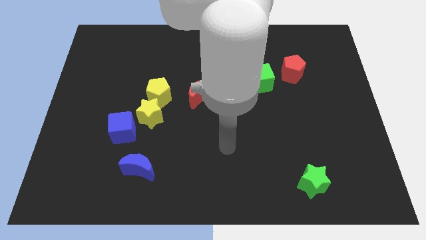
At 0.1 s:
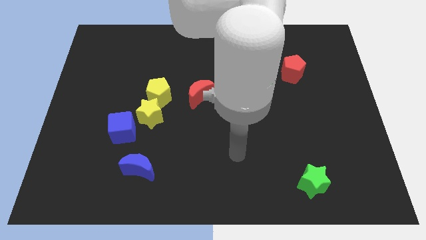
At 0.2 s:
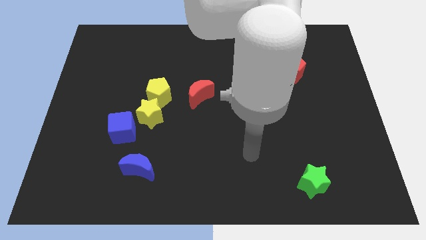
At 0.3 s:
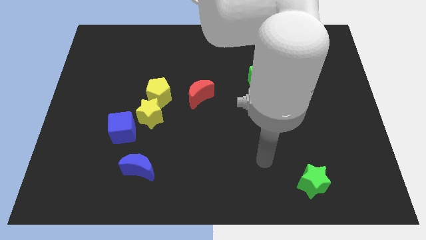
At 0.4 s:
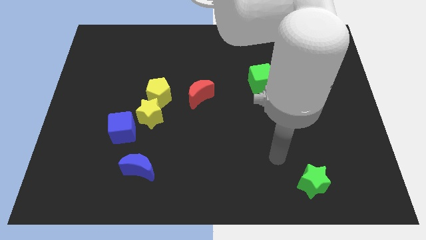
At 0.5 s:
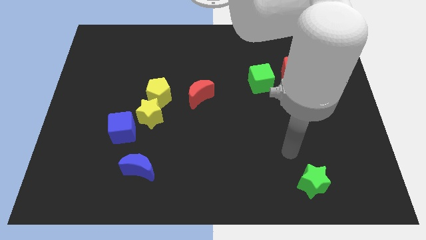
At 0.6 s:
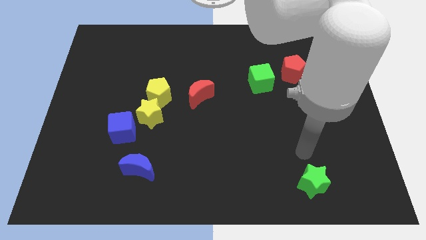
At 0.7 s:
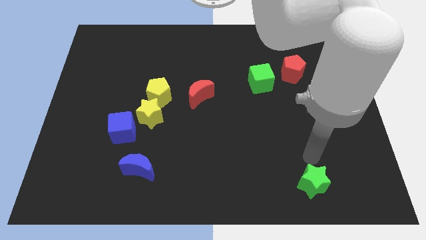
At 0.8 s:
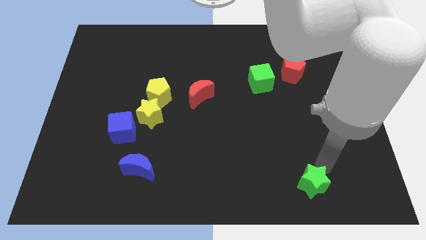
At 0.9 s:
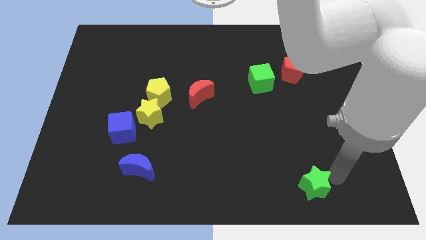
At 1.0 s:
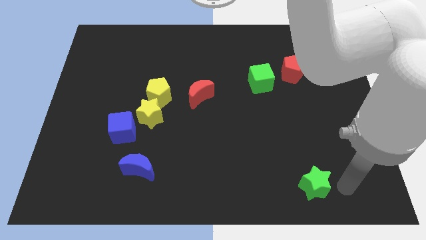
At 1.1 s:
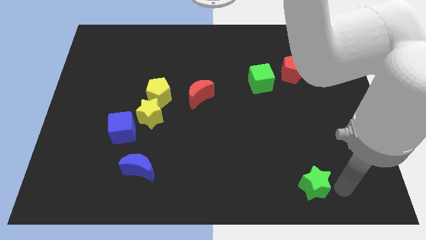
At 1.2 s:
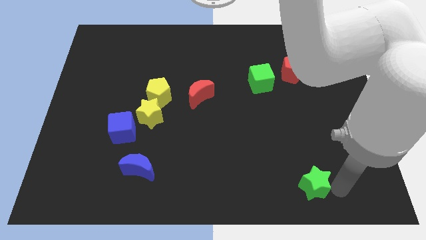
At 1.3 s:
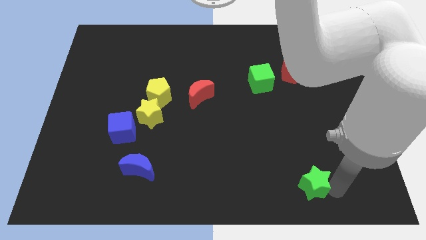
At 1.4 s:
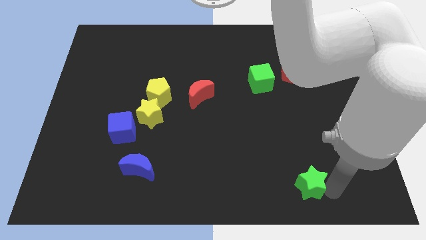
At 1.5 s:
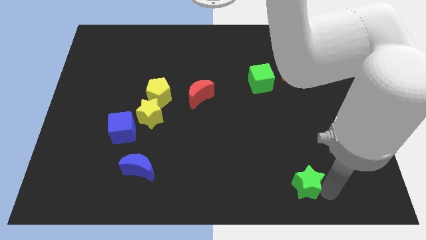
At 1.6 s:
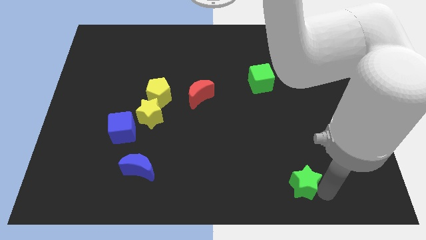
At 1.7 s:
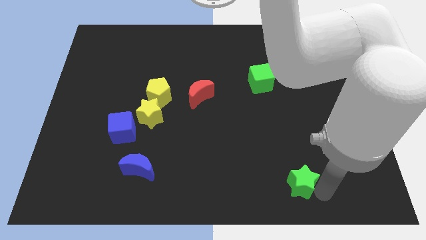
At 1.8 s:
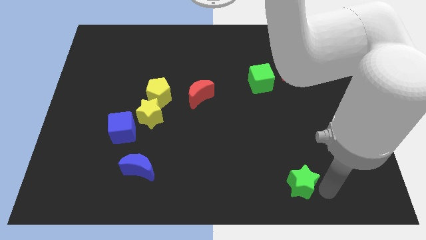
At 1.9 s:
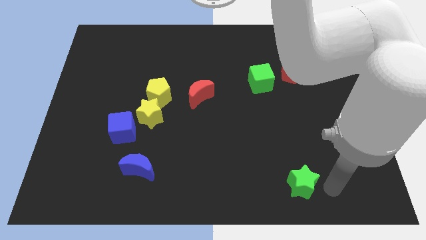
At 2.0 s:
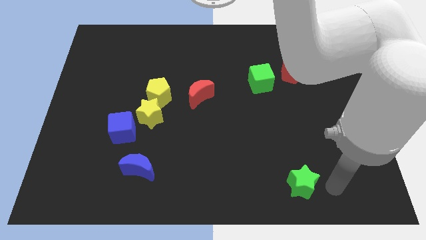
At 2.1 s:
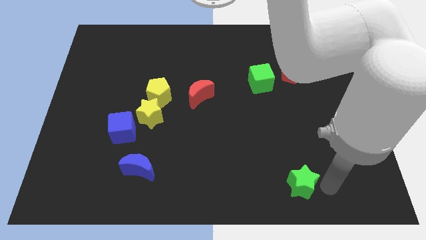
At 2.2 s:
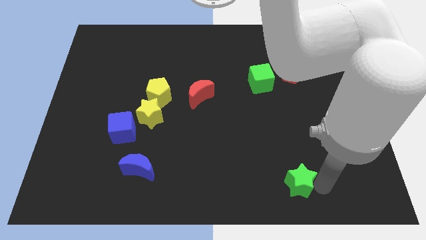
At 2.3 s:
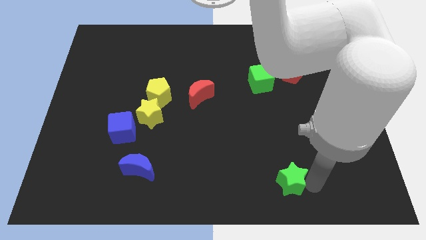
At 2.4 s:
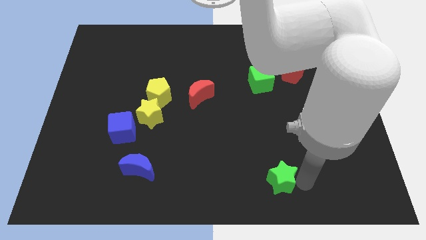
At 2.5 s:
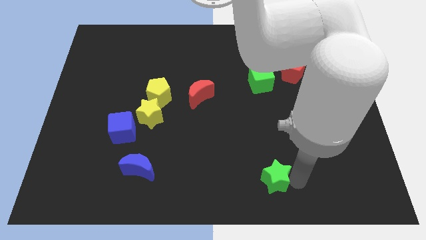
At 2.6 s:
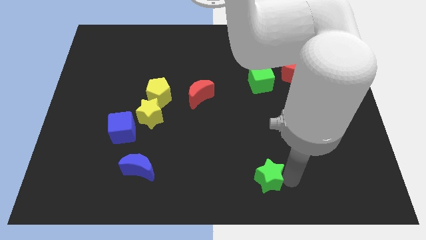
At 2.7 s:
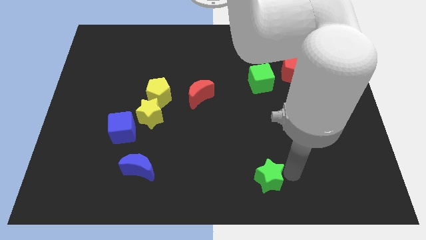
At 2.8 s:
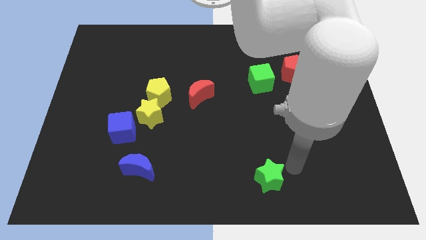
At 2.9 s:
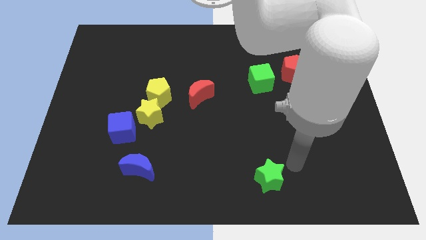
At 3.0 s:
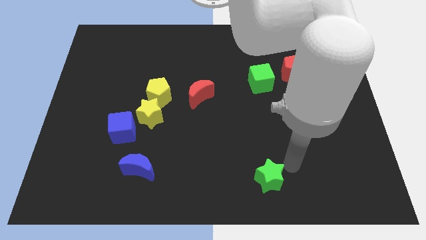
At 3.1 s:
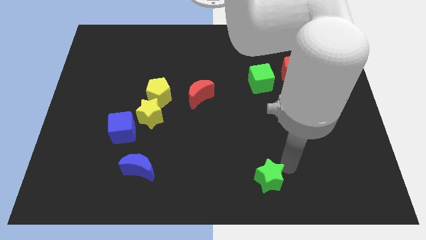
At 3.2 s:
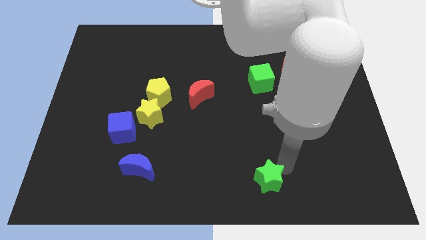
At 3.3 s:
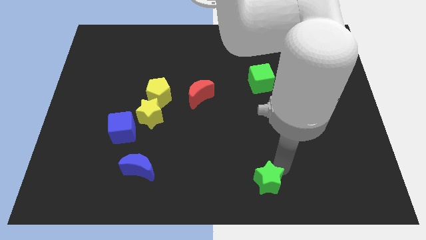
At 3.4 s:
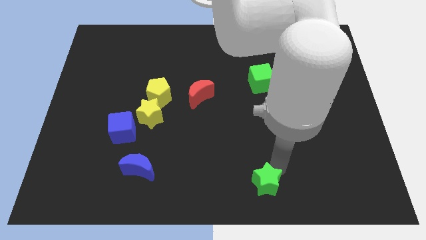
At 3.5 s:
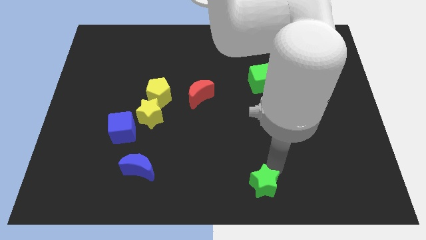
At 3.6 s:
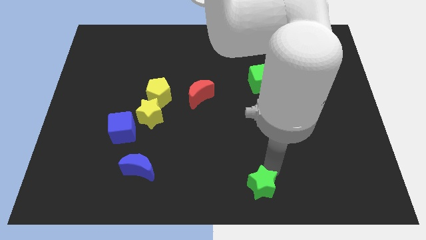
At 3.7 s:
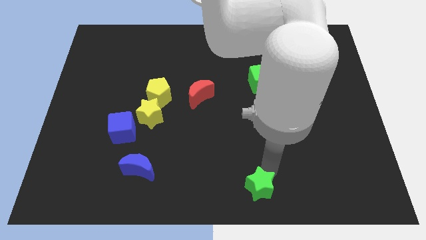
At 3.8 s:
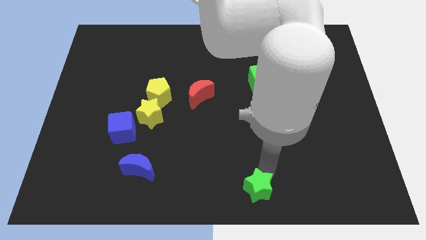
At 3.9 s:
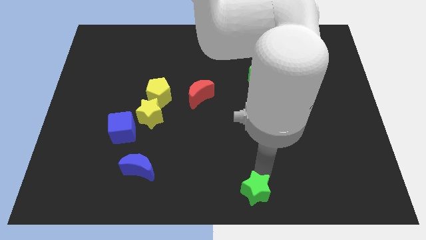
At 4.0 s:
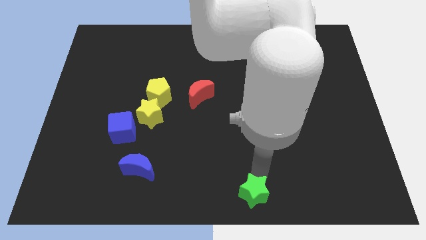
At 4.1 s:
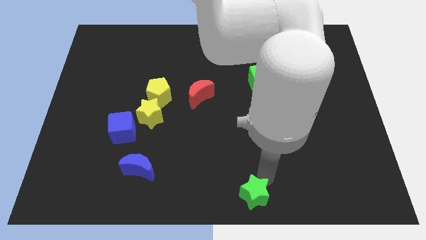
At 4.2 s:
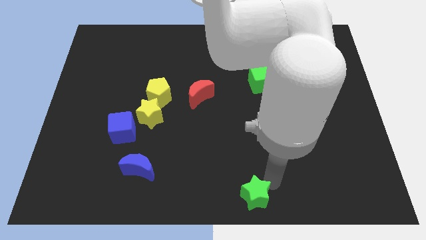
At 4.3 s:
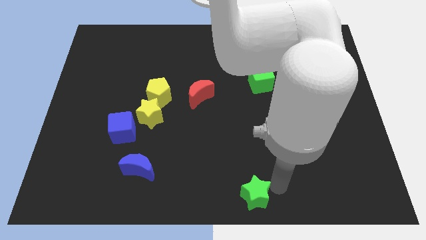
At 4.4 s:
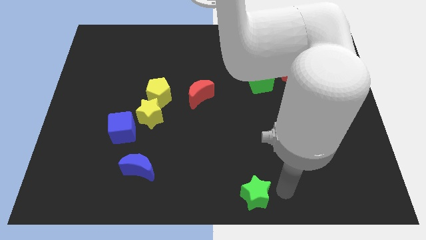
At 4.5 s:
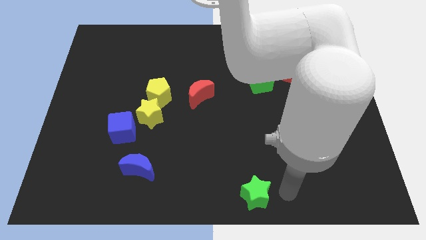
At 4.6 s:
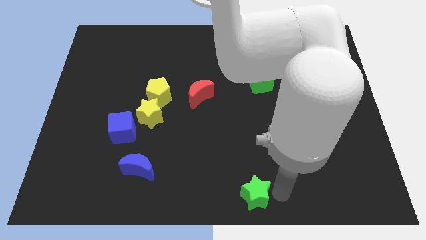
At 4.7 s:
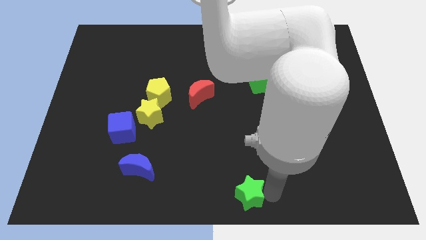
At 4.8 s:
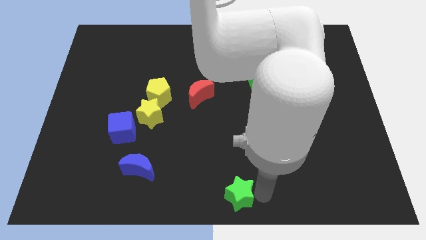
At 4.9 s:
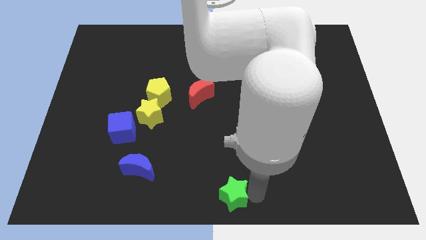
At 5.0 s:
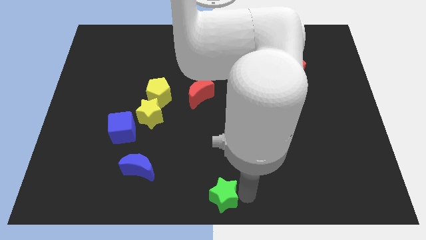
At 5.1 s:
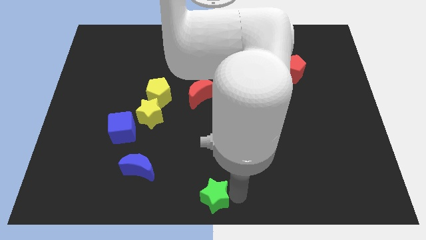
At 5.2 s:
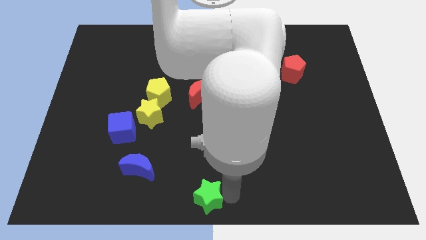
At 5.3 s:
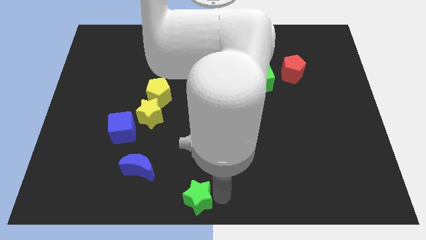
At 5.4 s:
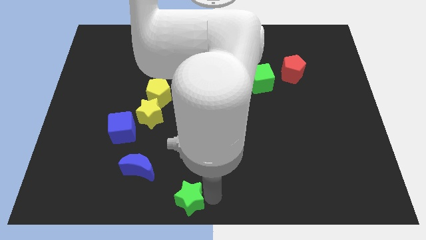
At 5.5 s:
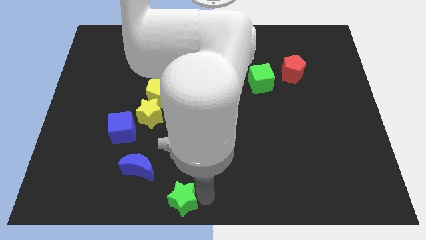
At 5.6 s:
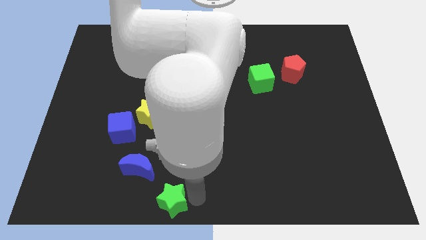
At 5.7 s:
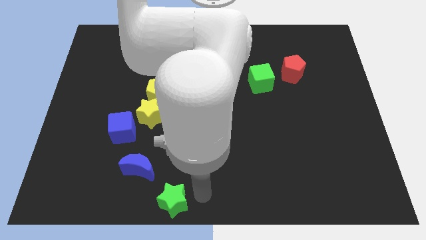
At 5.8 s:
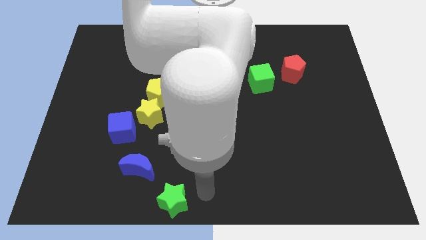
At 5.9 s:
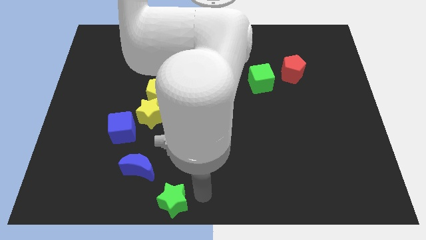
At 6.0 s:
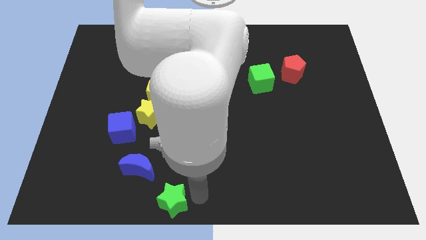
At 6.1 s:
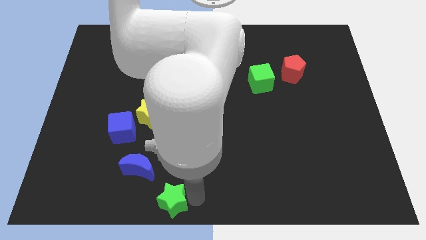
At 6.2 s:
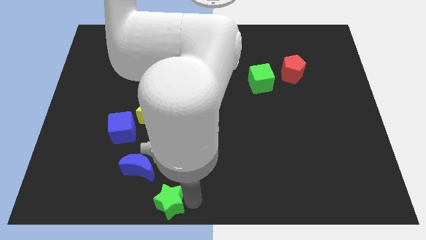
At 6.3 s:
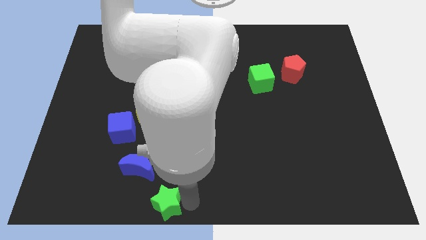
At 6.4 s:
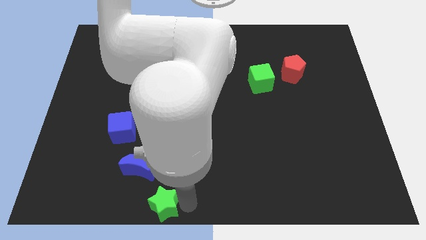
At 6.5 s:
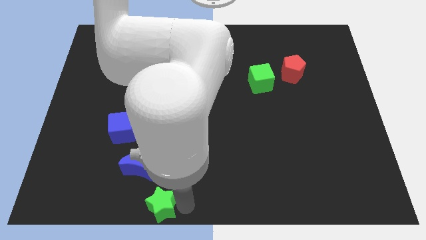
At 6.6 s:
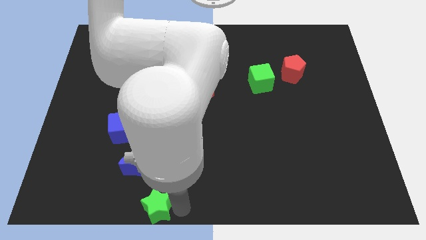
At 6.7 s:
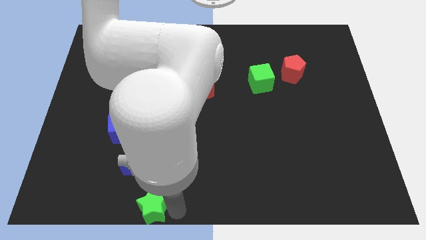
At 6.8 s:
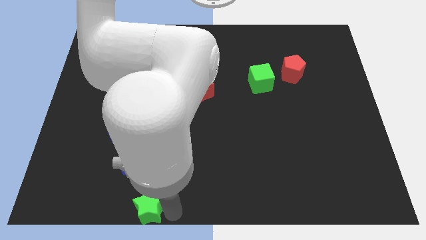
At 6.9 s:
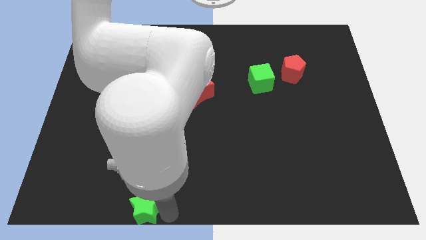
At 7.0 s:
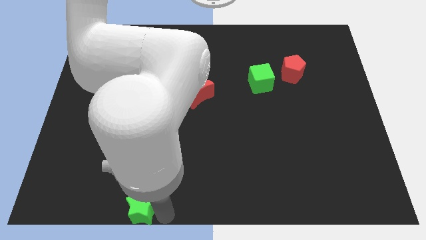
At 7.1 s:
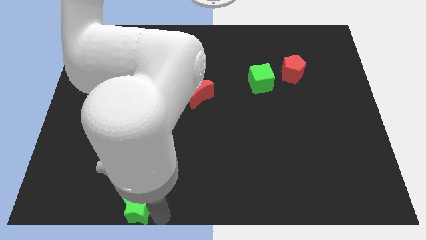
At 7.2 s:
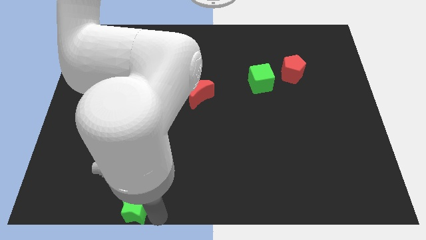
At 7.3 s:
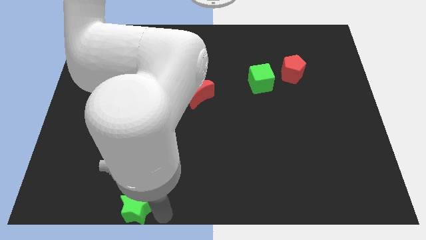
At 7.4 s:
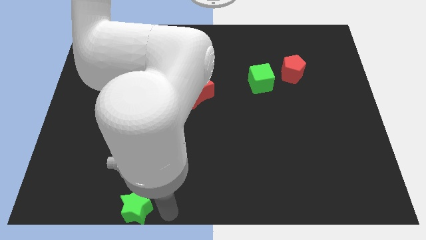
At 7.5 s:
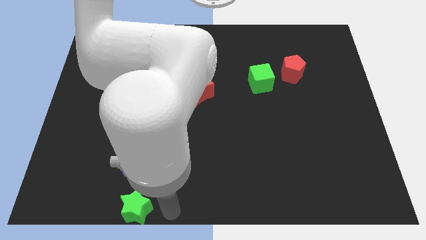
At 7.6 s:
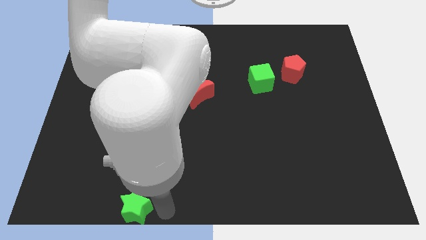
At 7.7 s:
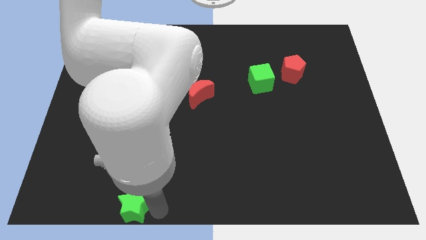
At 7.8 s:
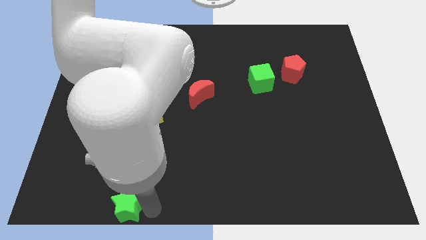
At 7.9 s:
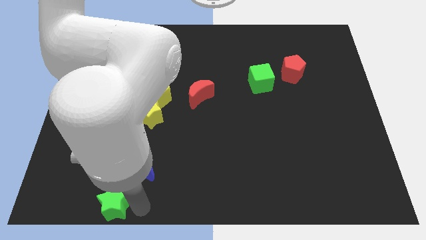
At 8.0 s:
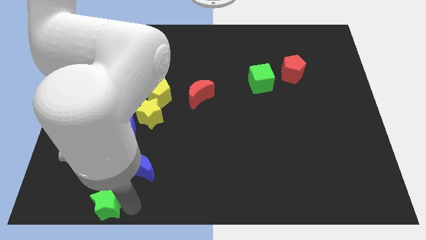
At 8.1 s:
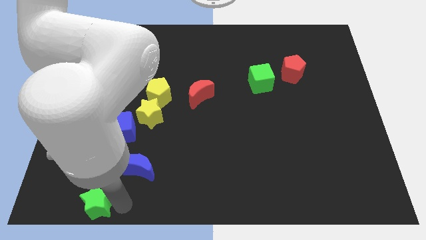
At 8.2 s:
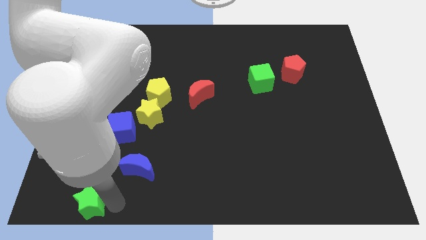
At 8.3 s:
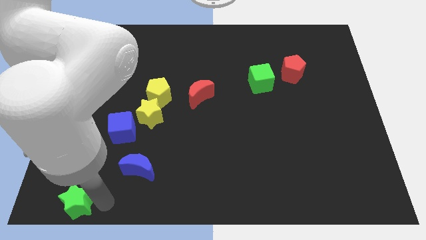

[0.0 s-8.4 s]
move the green star to the bottom left of the board
